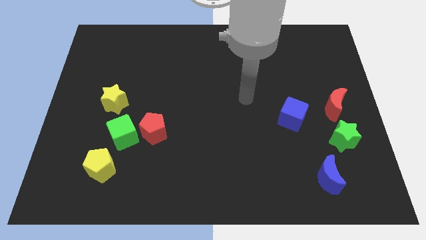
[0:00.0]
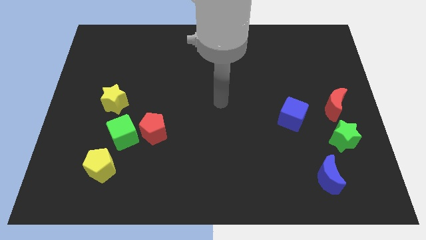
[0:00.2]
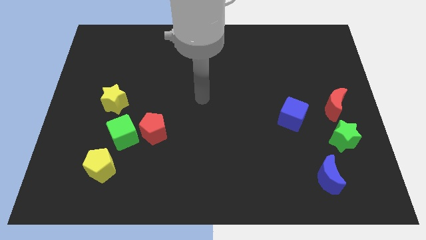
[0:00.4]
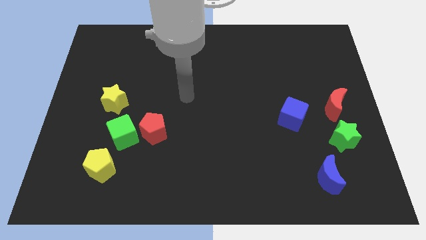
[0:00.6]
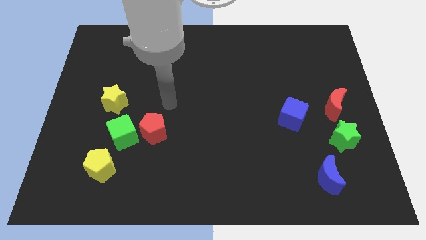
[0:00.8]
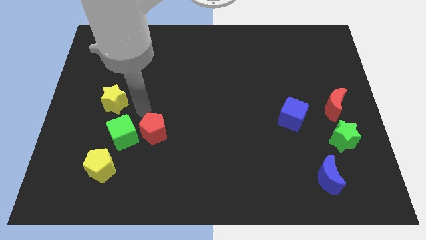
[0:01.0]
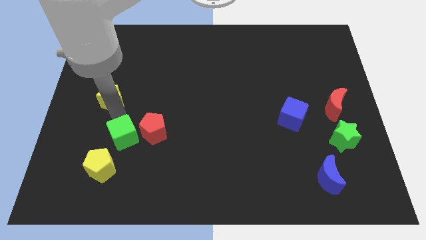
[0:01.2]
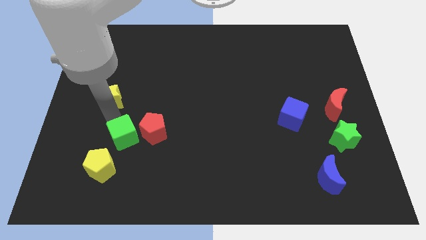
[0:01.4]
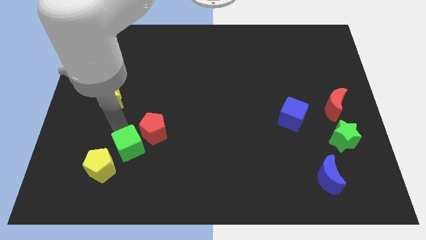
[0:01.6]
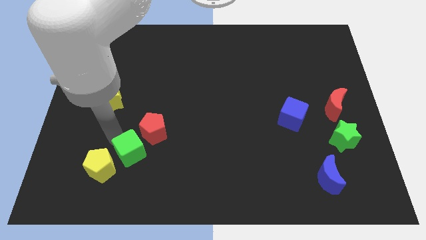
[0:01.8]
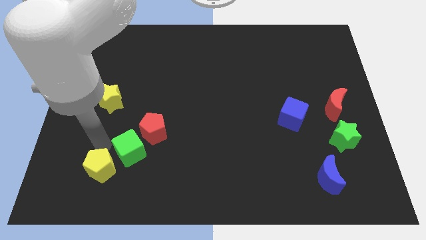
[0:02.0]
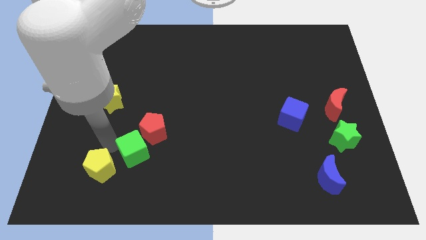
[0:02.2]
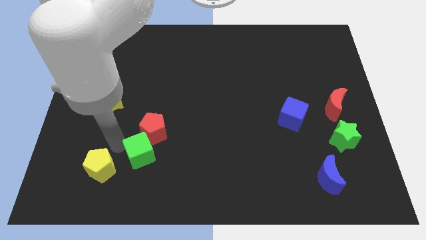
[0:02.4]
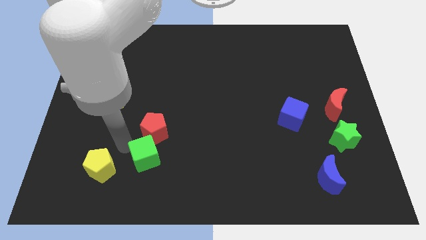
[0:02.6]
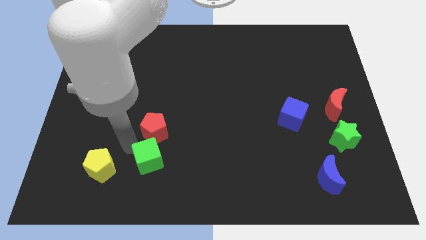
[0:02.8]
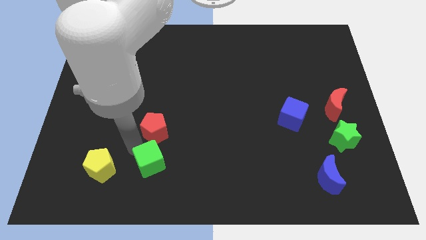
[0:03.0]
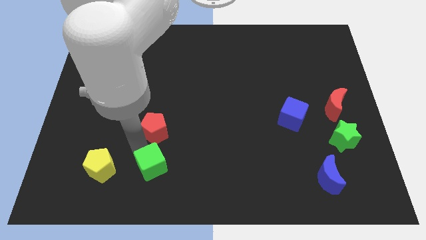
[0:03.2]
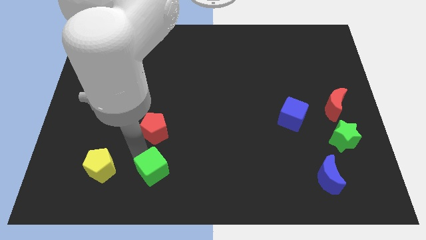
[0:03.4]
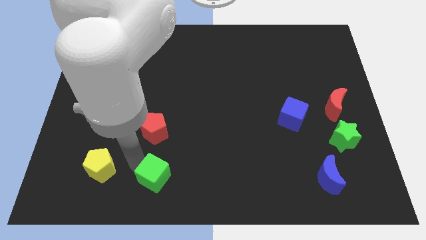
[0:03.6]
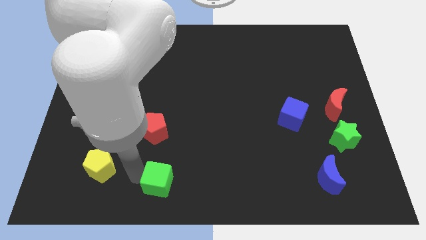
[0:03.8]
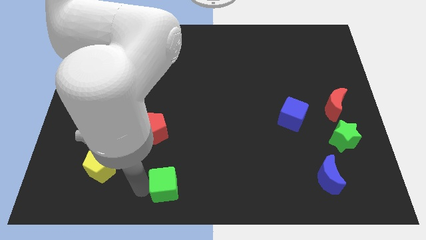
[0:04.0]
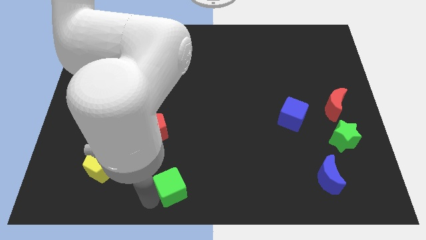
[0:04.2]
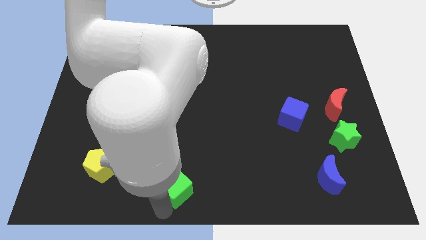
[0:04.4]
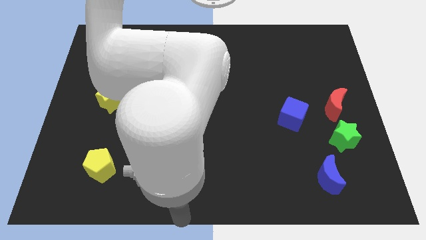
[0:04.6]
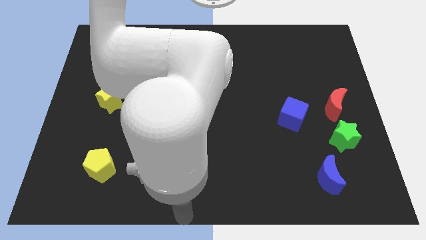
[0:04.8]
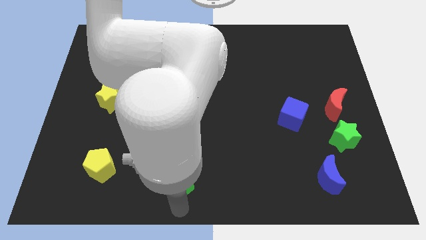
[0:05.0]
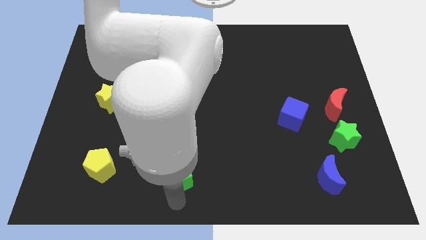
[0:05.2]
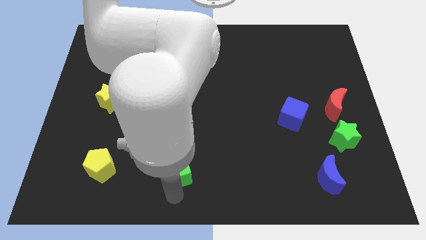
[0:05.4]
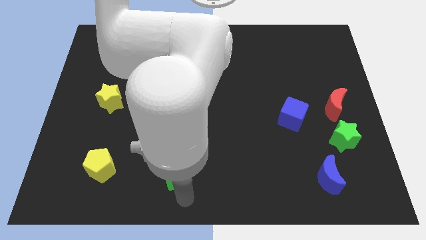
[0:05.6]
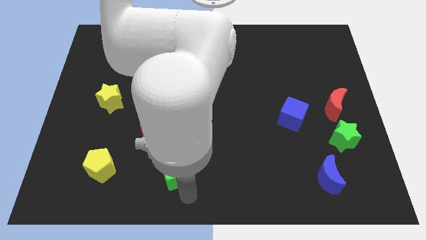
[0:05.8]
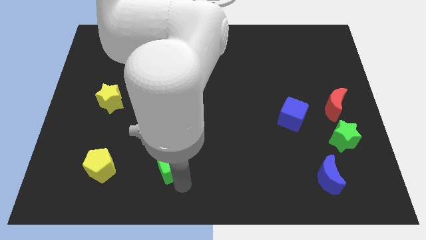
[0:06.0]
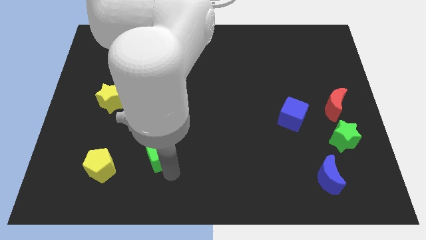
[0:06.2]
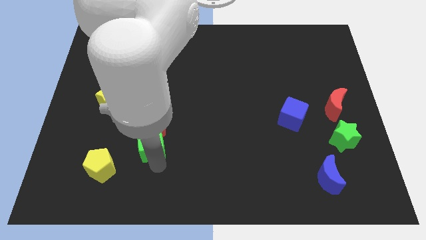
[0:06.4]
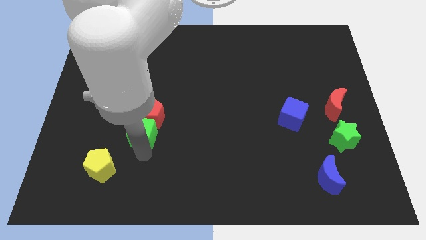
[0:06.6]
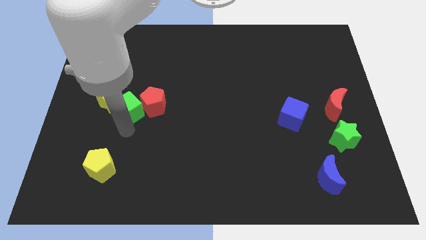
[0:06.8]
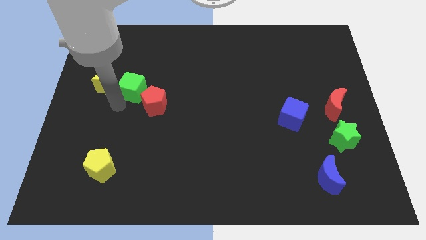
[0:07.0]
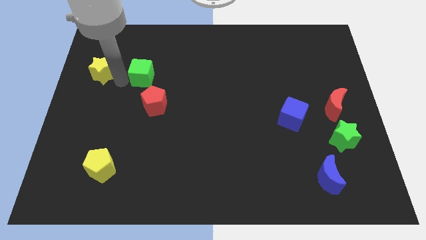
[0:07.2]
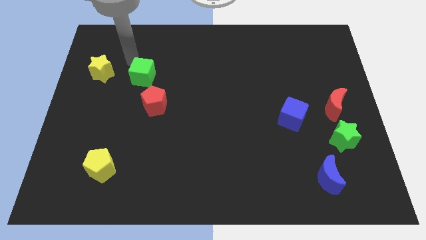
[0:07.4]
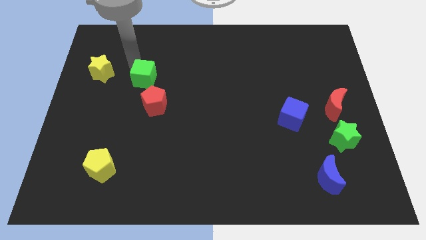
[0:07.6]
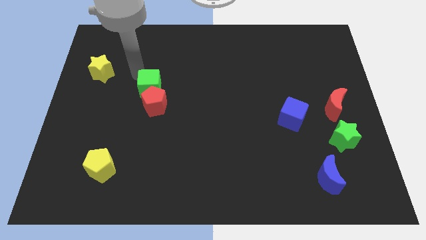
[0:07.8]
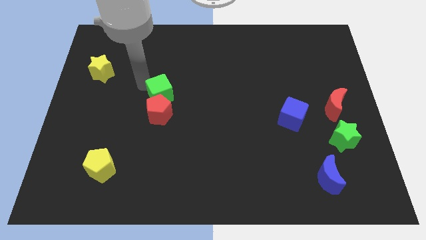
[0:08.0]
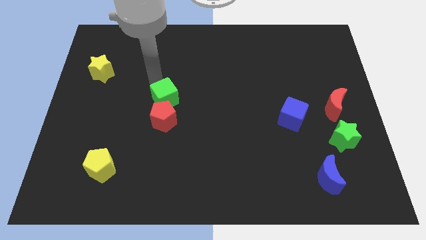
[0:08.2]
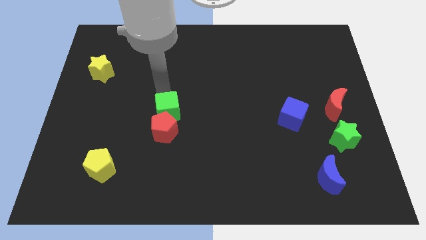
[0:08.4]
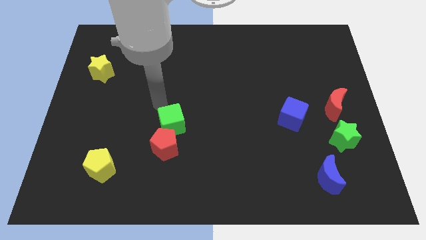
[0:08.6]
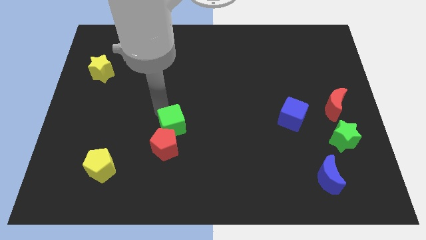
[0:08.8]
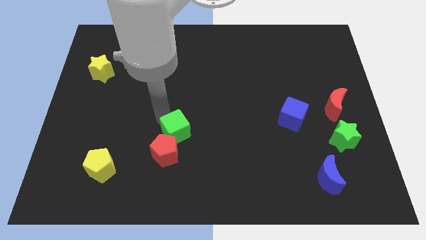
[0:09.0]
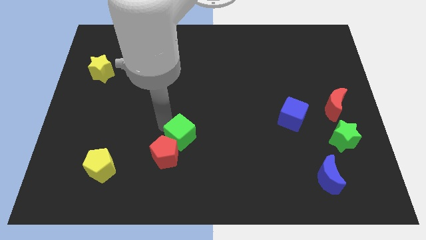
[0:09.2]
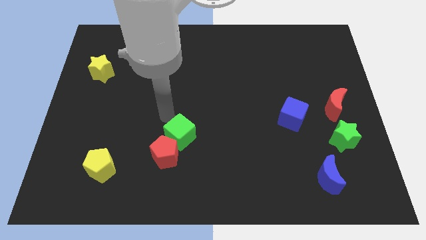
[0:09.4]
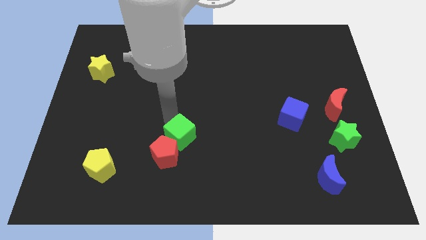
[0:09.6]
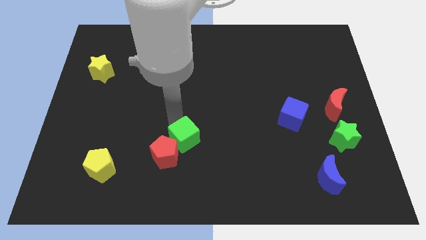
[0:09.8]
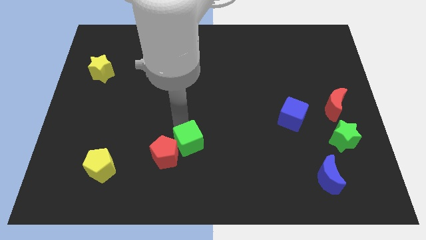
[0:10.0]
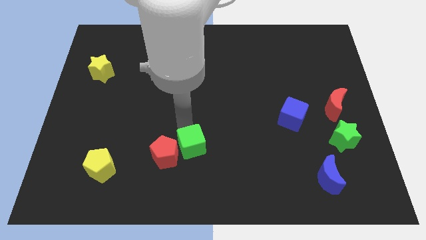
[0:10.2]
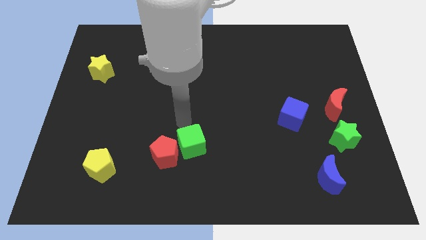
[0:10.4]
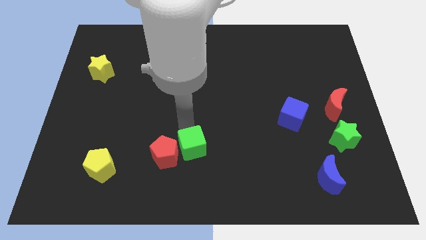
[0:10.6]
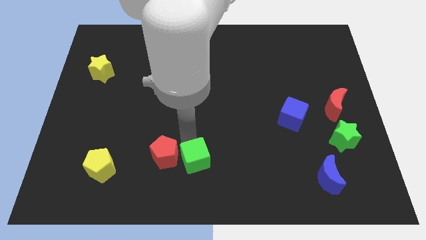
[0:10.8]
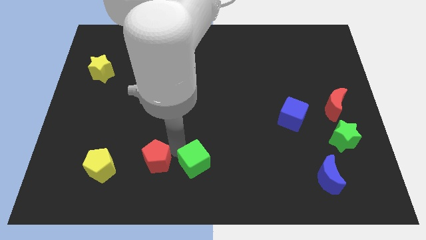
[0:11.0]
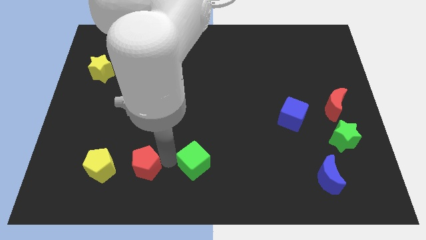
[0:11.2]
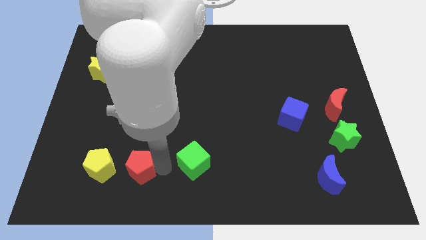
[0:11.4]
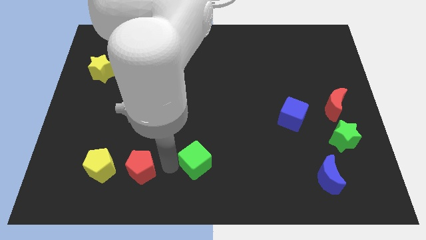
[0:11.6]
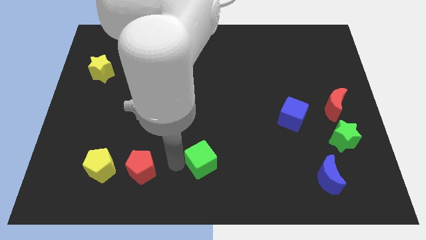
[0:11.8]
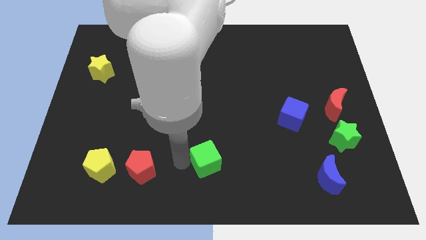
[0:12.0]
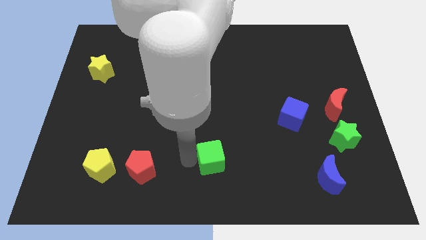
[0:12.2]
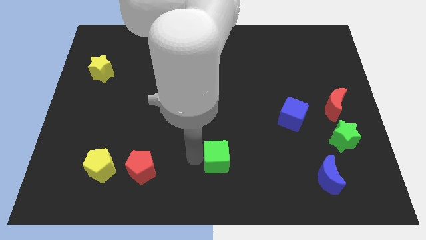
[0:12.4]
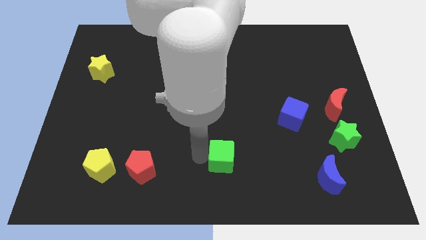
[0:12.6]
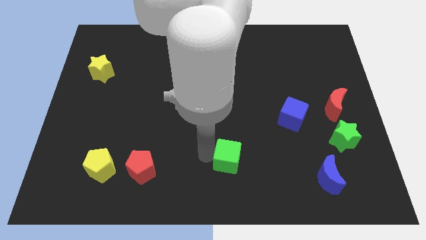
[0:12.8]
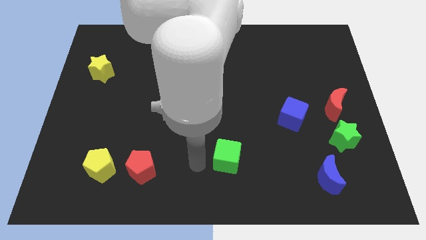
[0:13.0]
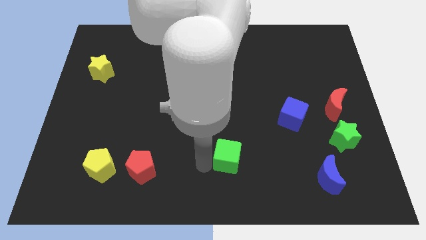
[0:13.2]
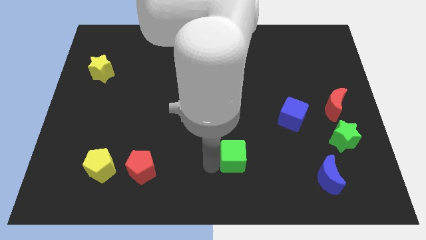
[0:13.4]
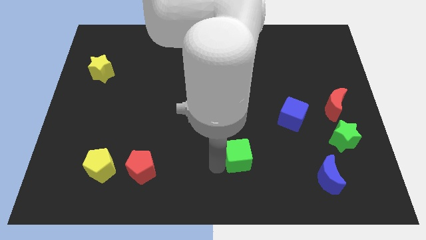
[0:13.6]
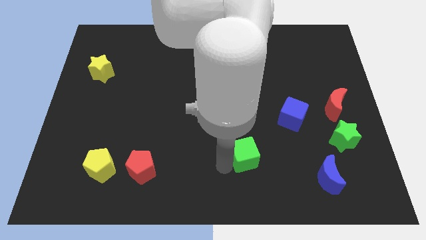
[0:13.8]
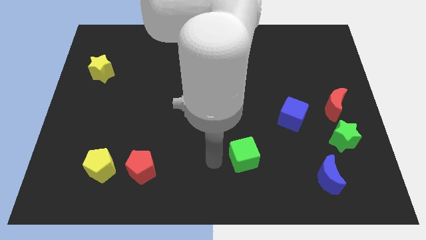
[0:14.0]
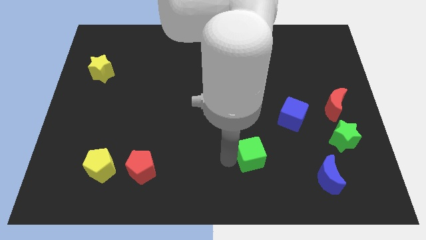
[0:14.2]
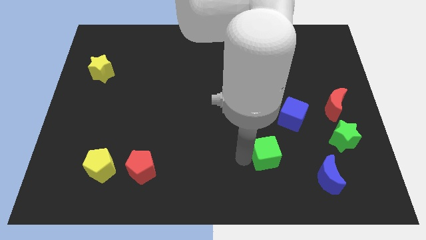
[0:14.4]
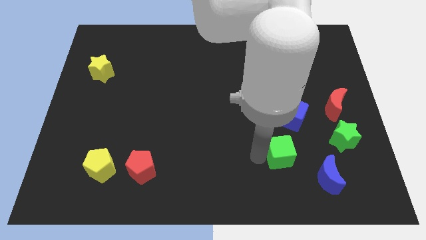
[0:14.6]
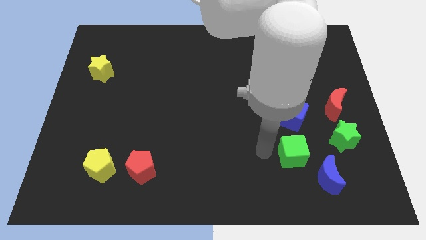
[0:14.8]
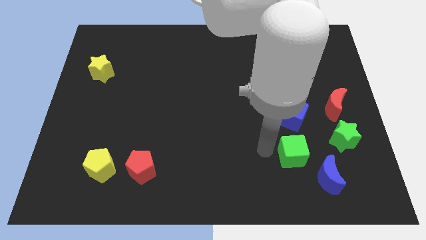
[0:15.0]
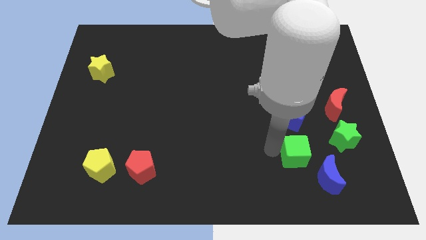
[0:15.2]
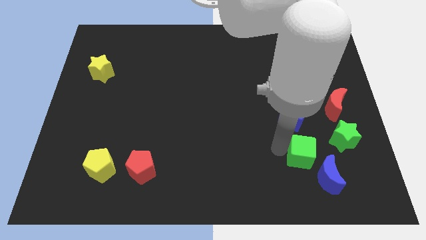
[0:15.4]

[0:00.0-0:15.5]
move the green cube to the bottom left side of the green star
